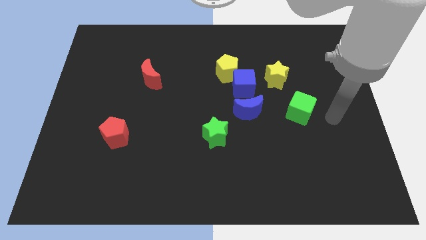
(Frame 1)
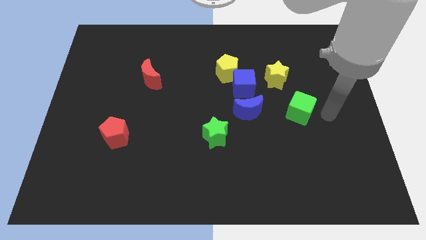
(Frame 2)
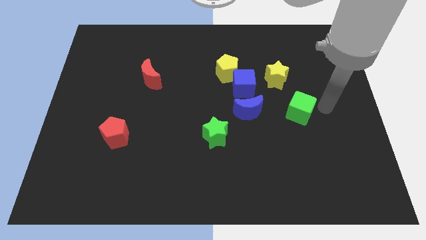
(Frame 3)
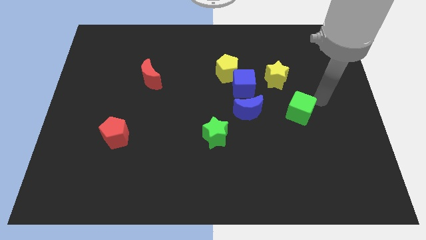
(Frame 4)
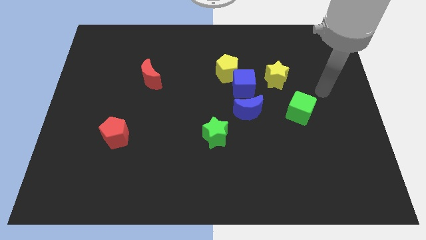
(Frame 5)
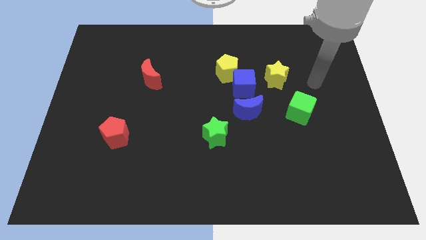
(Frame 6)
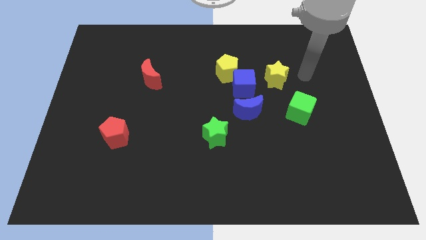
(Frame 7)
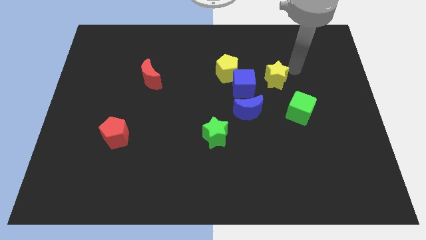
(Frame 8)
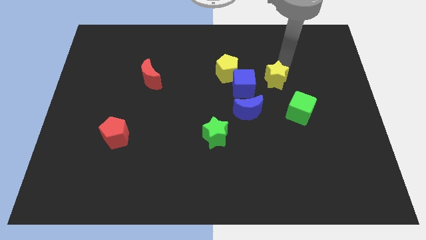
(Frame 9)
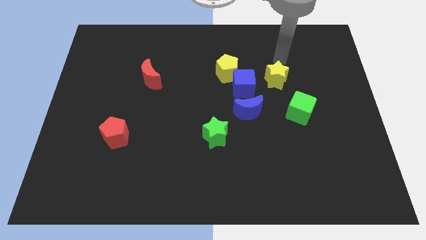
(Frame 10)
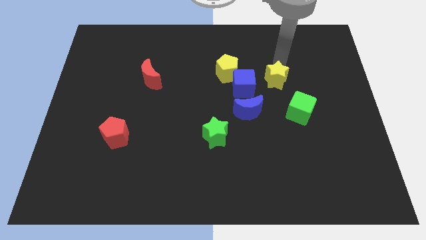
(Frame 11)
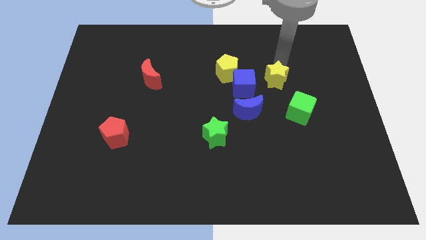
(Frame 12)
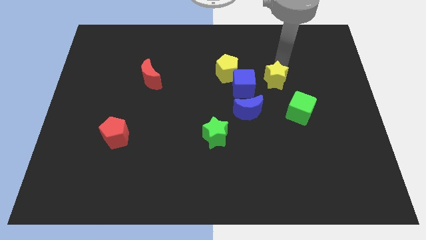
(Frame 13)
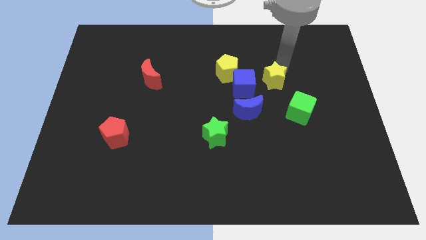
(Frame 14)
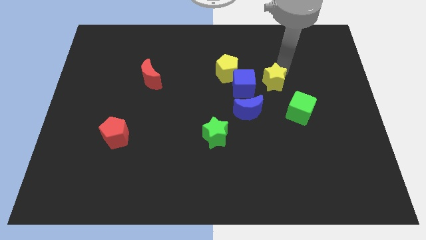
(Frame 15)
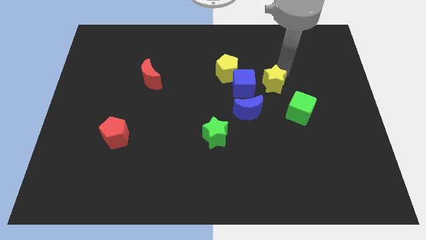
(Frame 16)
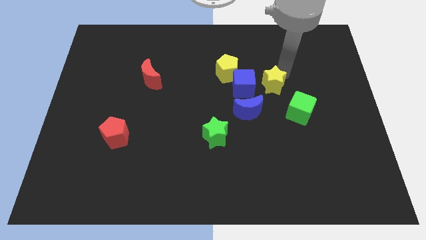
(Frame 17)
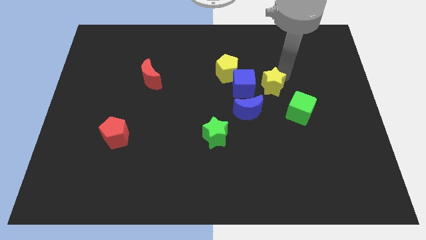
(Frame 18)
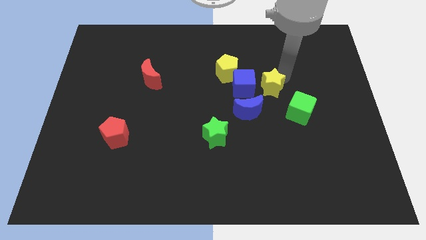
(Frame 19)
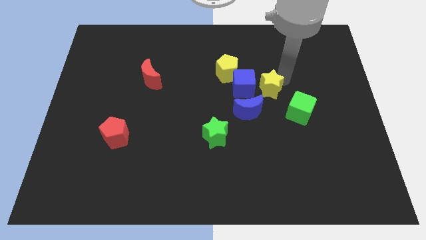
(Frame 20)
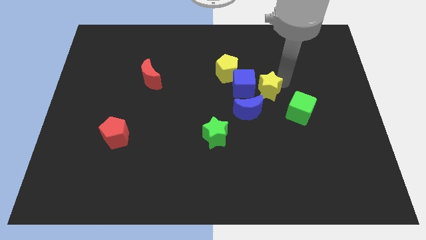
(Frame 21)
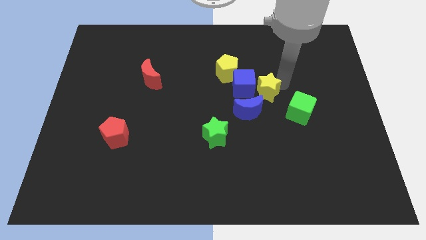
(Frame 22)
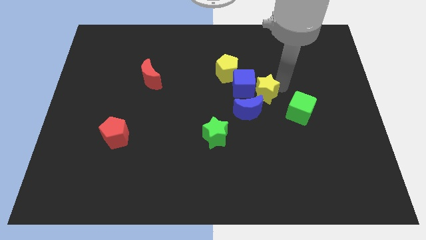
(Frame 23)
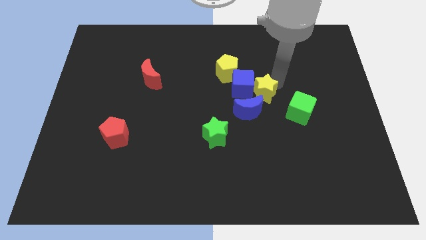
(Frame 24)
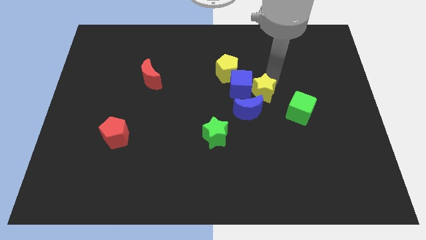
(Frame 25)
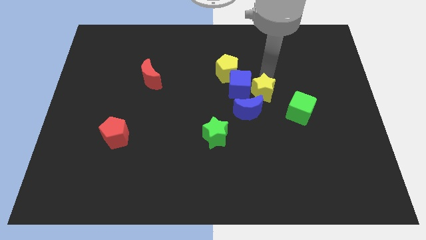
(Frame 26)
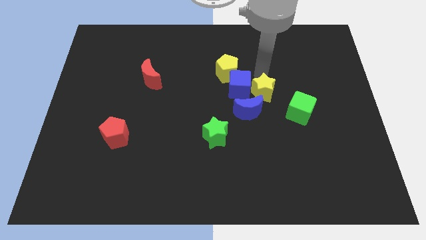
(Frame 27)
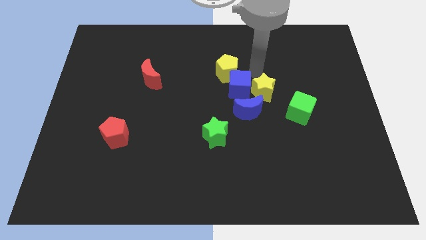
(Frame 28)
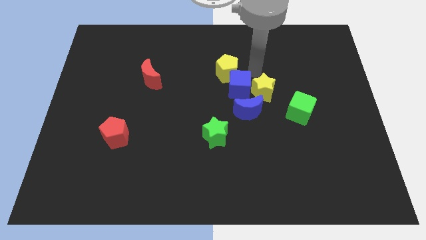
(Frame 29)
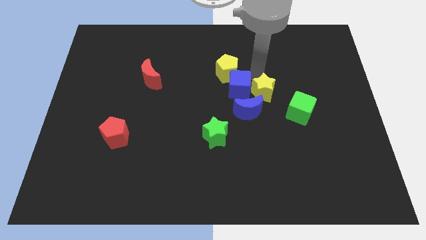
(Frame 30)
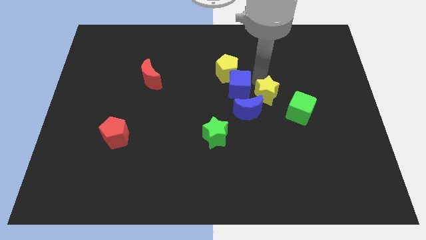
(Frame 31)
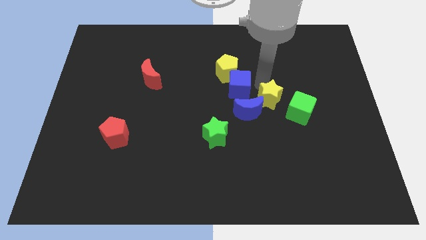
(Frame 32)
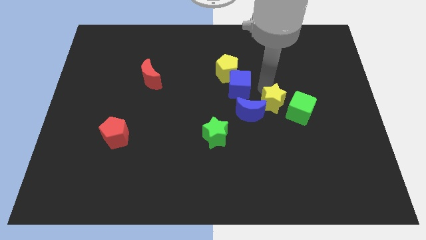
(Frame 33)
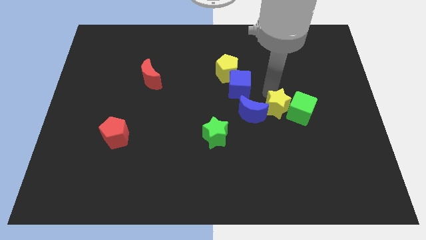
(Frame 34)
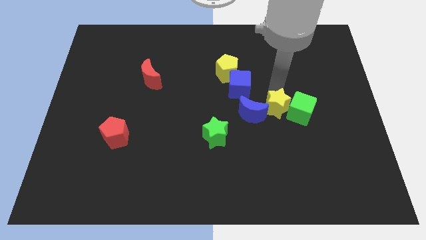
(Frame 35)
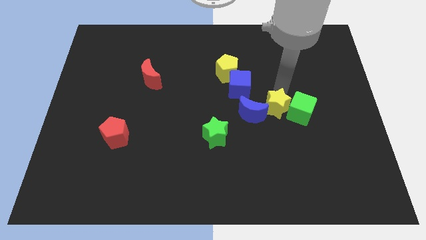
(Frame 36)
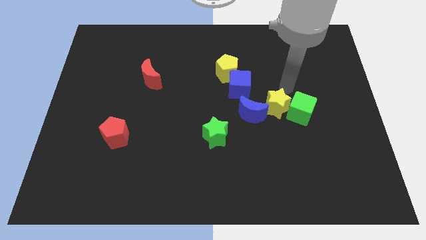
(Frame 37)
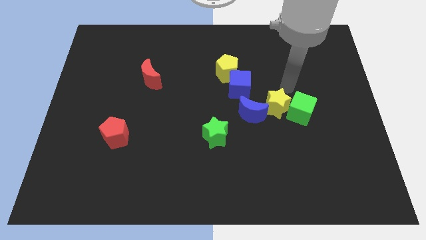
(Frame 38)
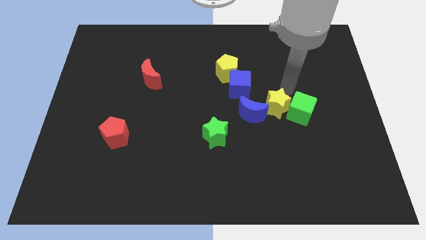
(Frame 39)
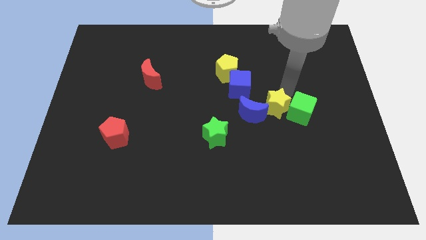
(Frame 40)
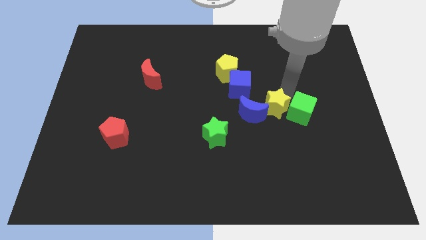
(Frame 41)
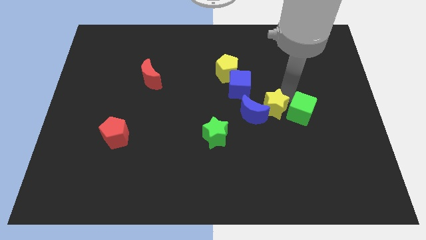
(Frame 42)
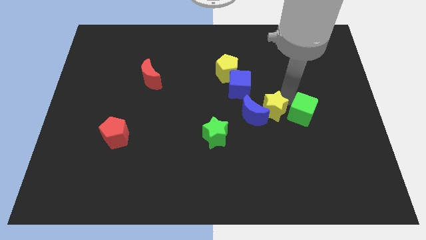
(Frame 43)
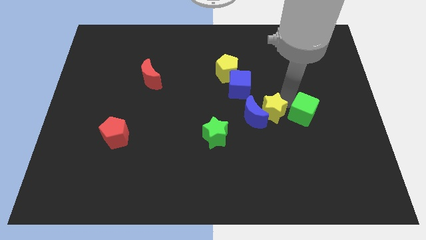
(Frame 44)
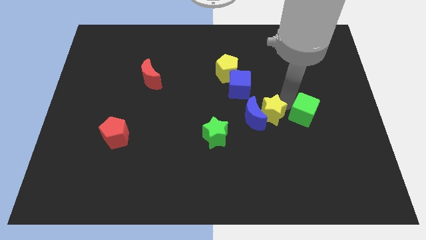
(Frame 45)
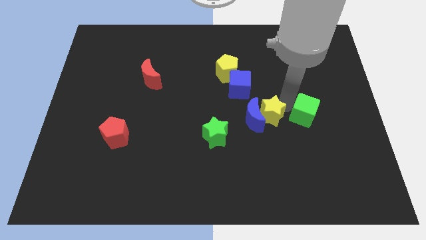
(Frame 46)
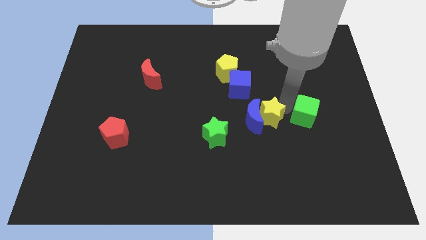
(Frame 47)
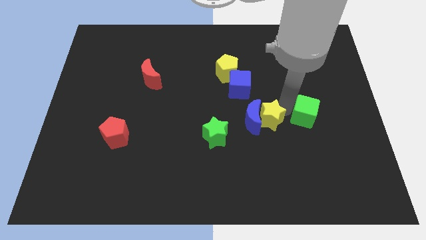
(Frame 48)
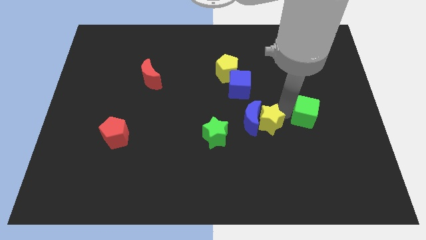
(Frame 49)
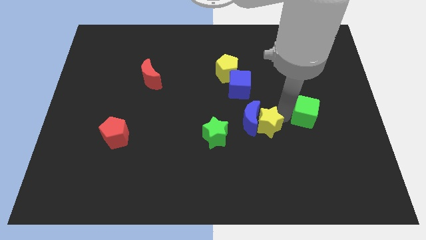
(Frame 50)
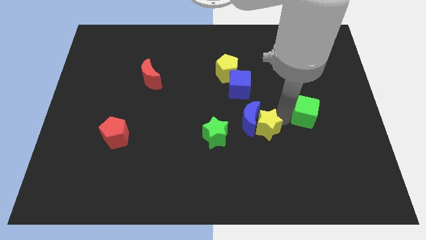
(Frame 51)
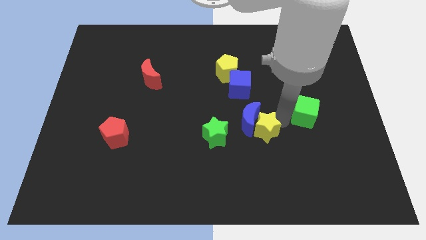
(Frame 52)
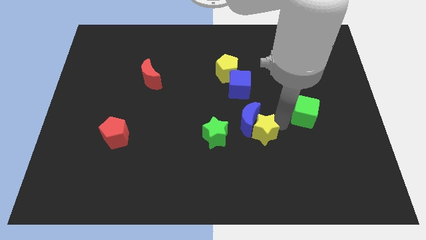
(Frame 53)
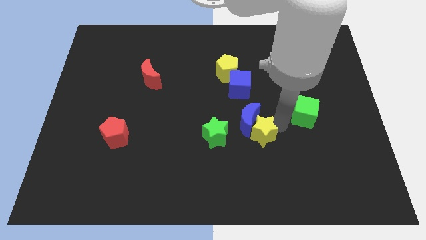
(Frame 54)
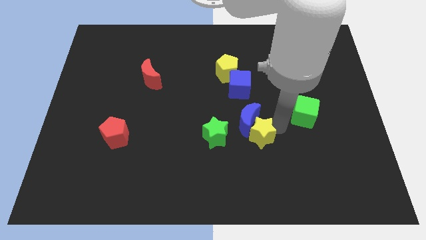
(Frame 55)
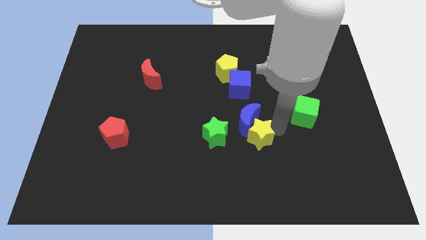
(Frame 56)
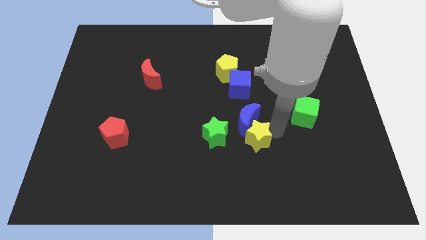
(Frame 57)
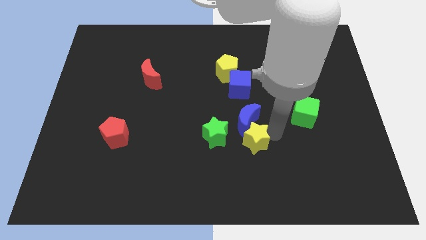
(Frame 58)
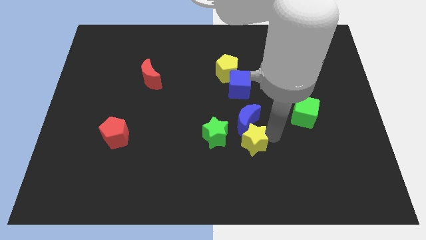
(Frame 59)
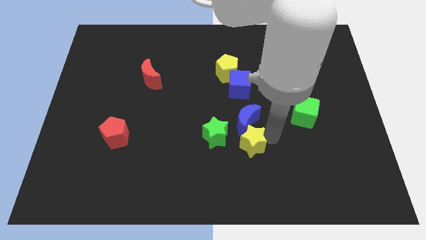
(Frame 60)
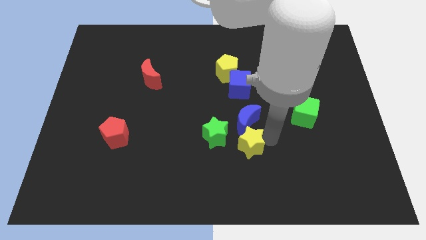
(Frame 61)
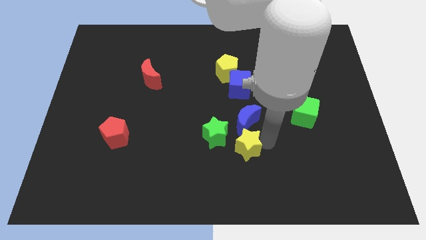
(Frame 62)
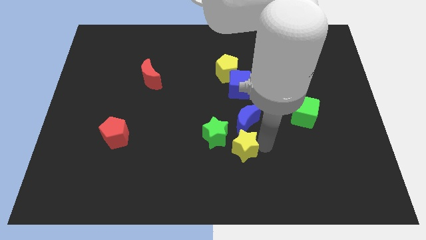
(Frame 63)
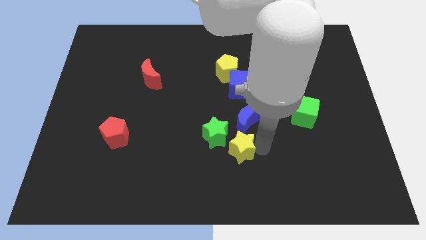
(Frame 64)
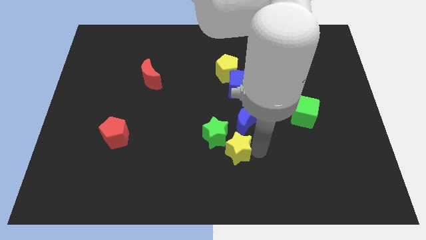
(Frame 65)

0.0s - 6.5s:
put the yellow star to the bottom of the green star
